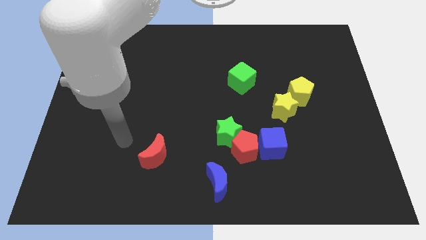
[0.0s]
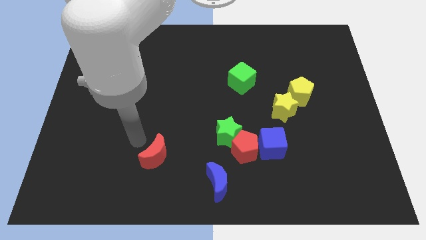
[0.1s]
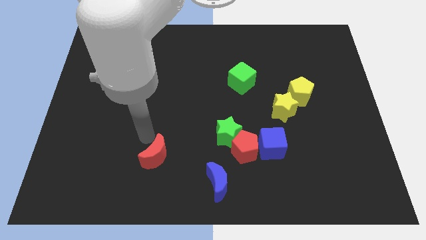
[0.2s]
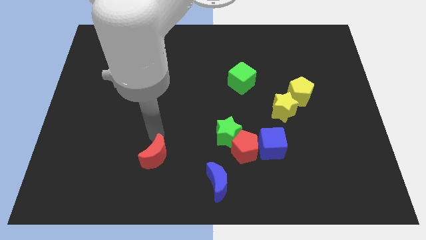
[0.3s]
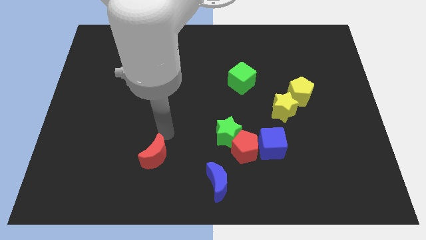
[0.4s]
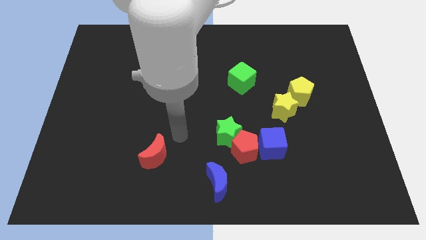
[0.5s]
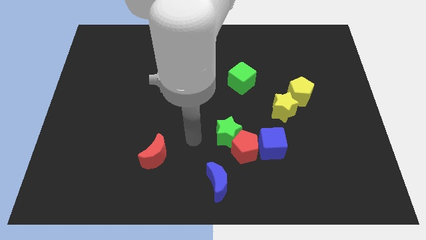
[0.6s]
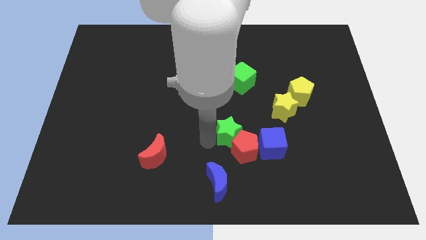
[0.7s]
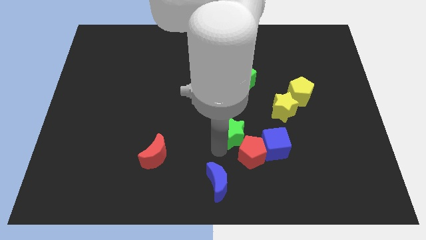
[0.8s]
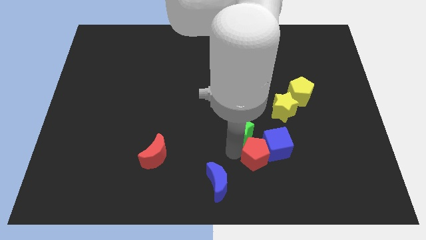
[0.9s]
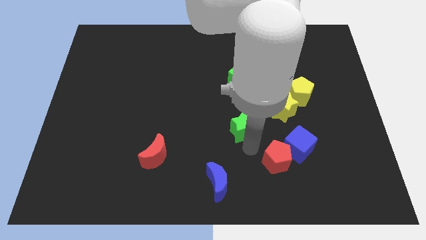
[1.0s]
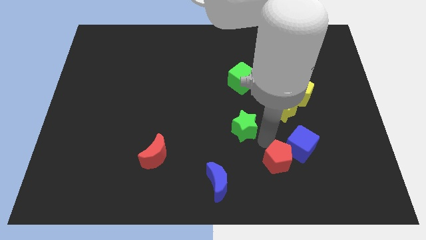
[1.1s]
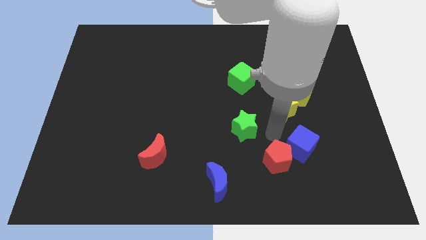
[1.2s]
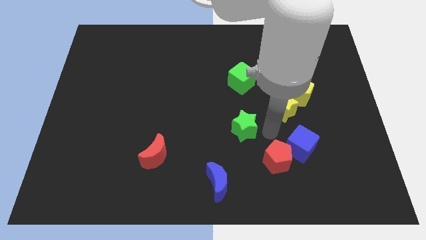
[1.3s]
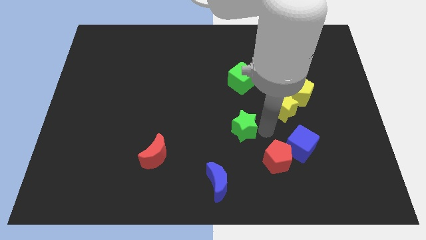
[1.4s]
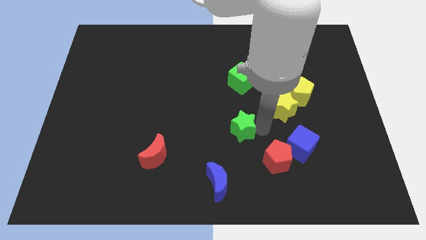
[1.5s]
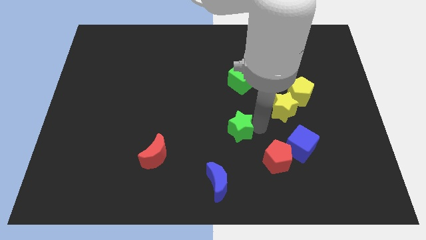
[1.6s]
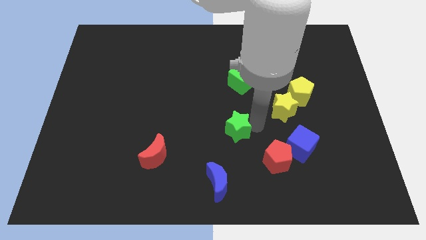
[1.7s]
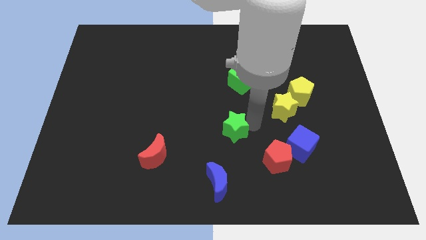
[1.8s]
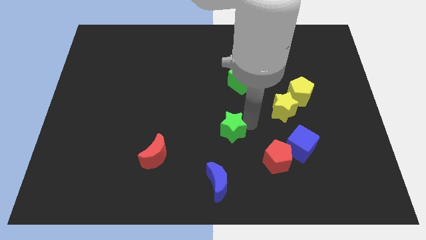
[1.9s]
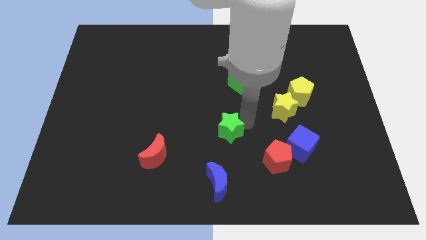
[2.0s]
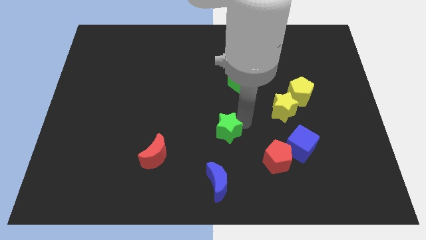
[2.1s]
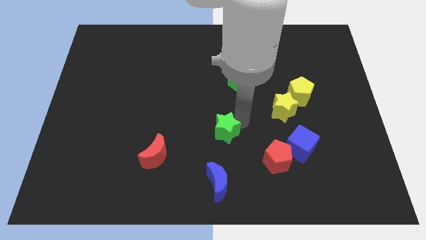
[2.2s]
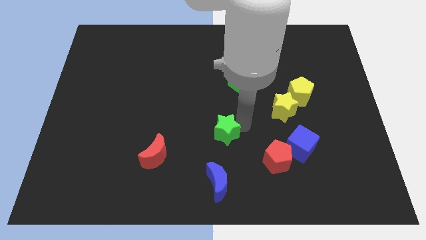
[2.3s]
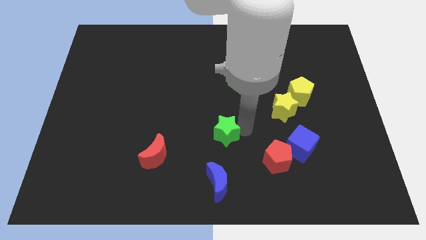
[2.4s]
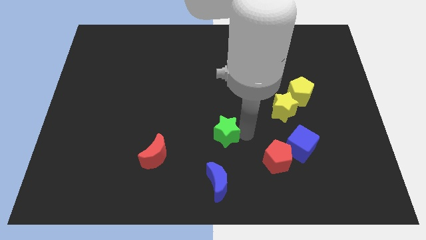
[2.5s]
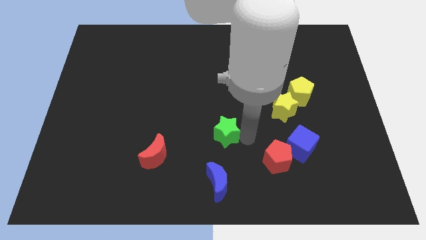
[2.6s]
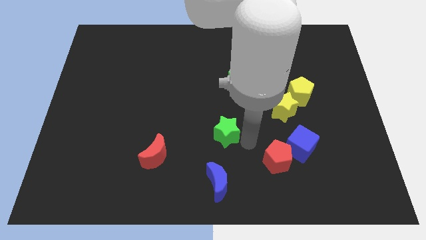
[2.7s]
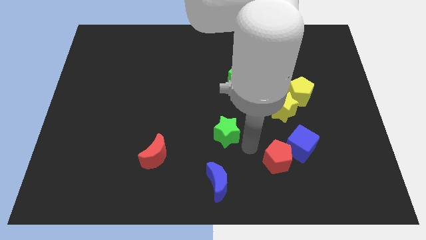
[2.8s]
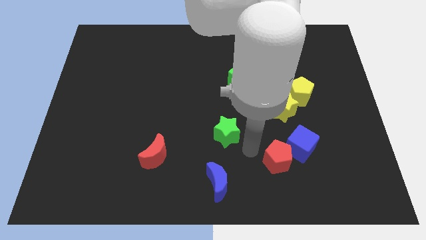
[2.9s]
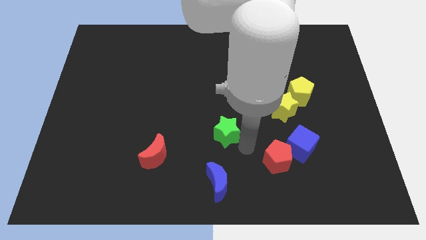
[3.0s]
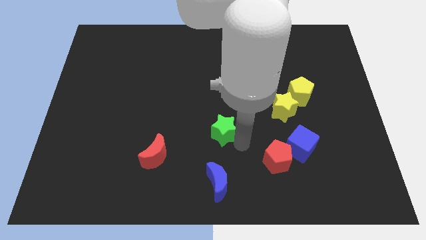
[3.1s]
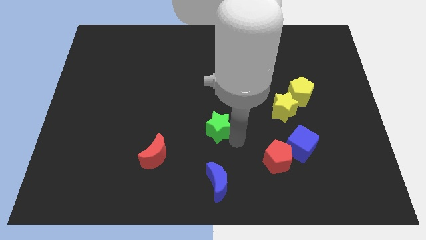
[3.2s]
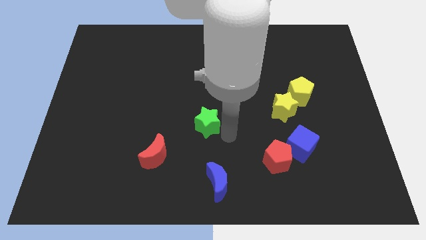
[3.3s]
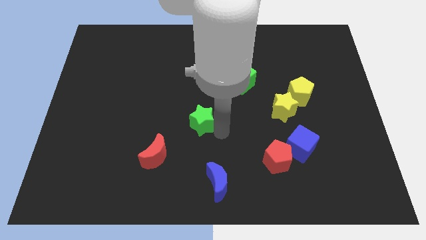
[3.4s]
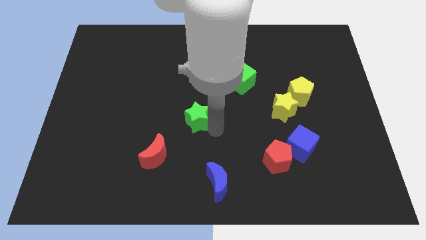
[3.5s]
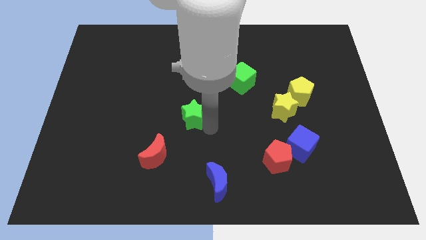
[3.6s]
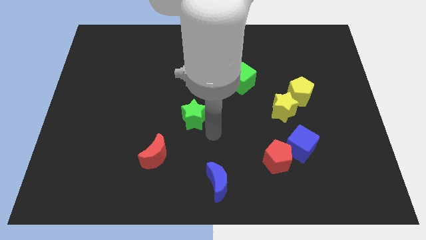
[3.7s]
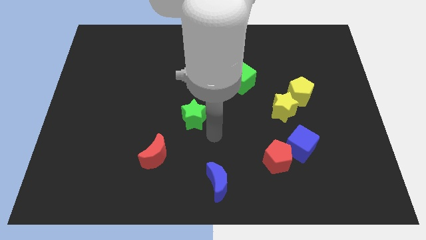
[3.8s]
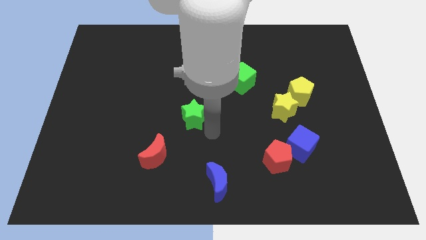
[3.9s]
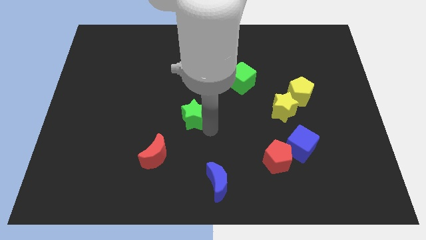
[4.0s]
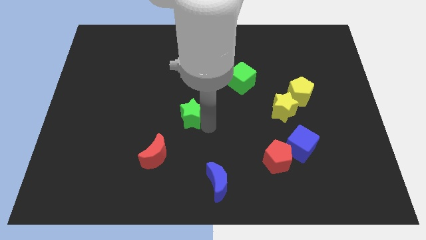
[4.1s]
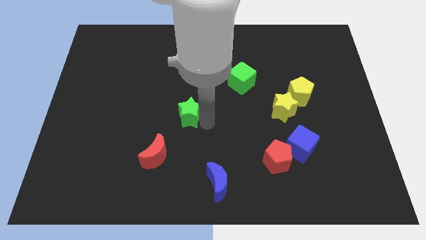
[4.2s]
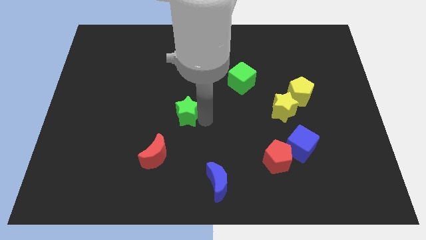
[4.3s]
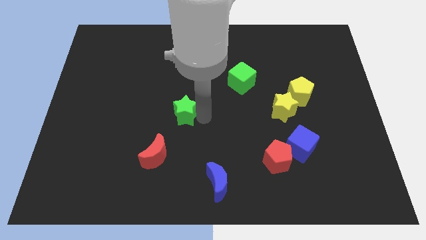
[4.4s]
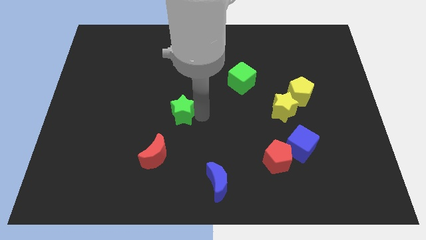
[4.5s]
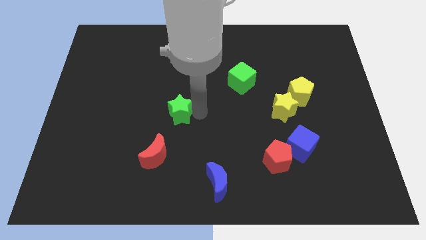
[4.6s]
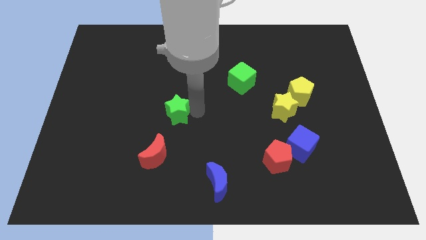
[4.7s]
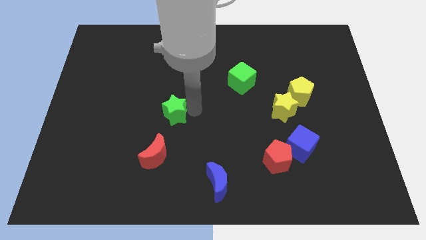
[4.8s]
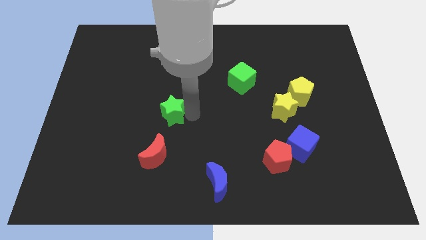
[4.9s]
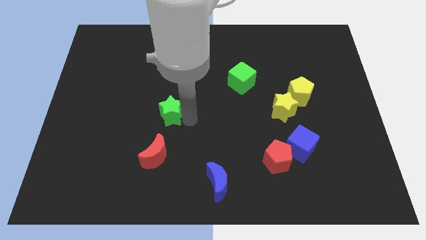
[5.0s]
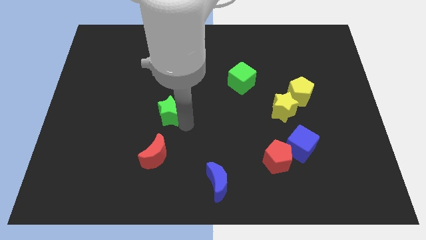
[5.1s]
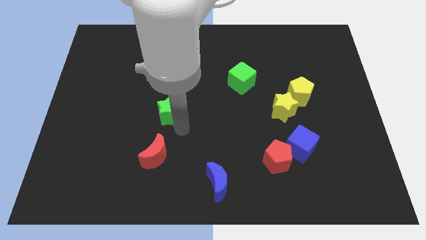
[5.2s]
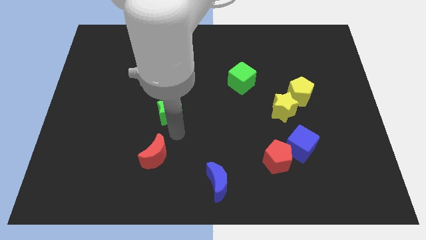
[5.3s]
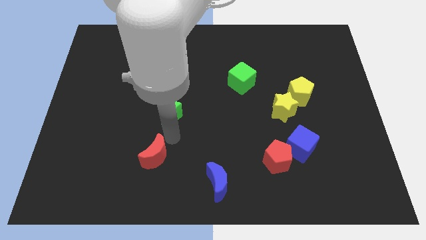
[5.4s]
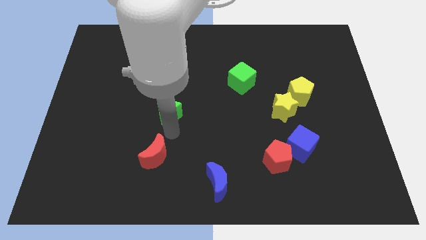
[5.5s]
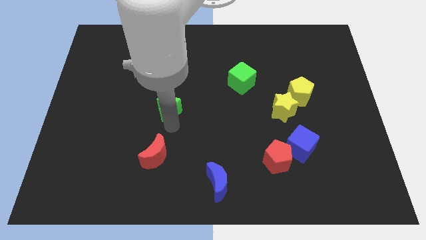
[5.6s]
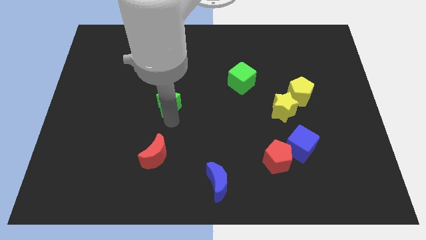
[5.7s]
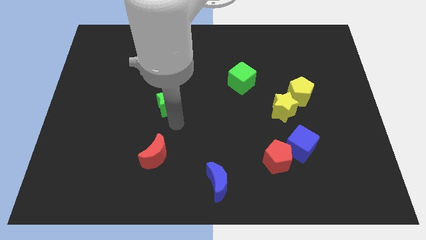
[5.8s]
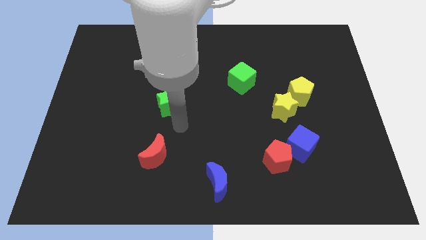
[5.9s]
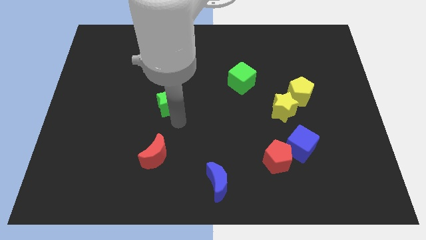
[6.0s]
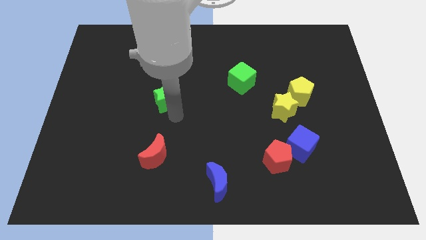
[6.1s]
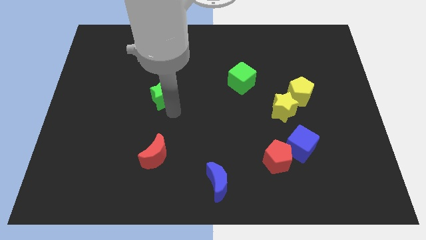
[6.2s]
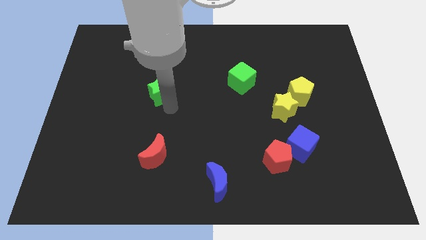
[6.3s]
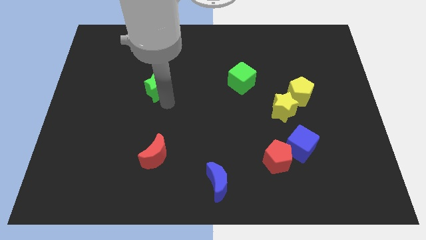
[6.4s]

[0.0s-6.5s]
push the green star up and then left

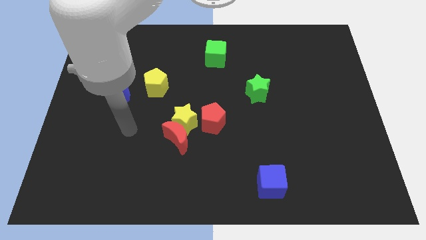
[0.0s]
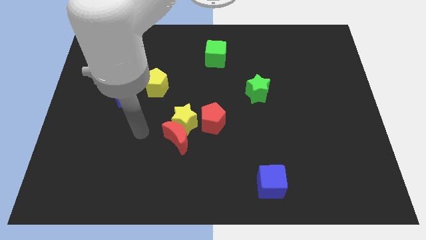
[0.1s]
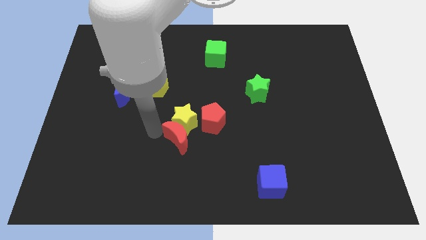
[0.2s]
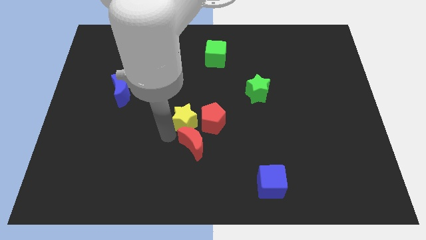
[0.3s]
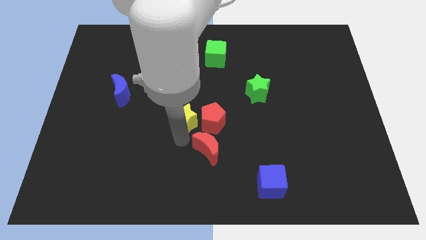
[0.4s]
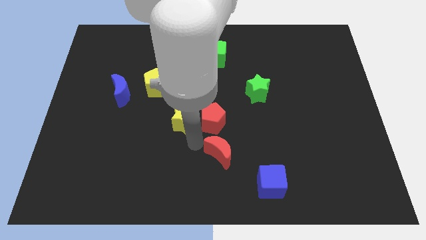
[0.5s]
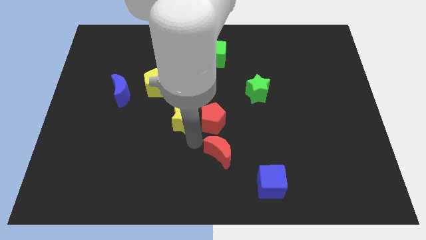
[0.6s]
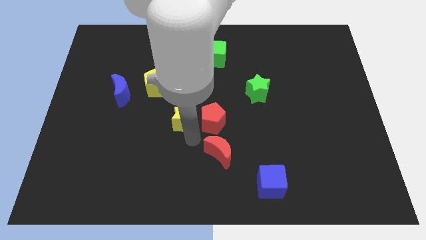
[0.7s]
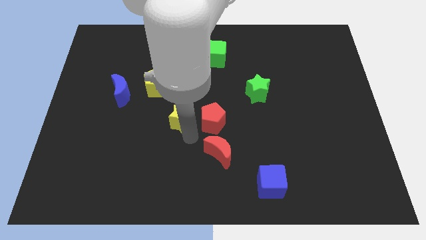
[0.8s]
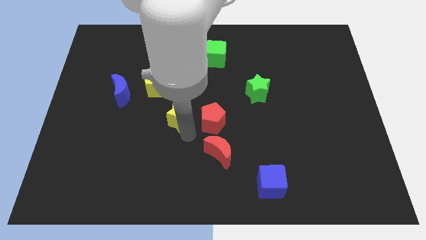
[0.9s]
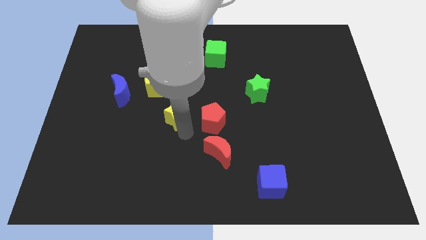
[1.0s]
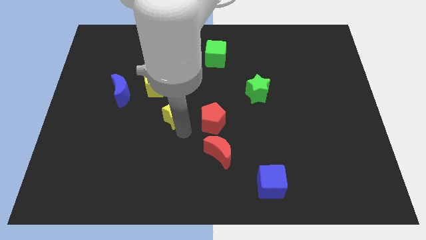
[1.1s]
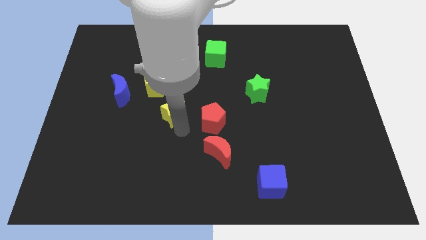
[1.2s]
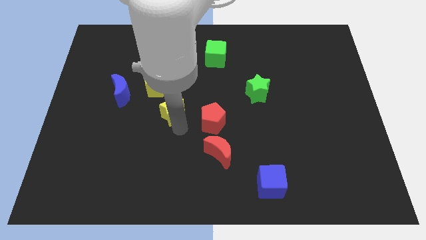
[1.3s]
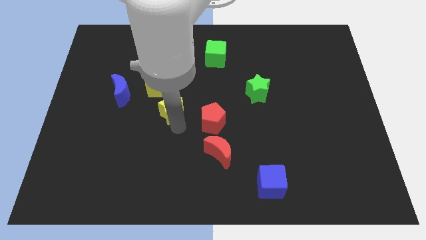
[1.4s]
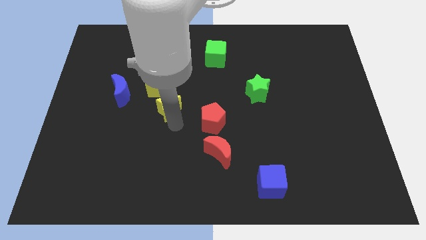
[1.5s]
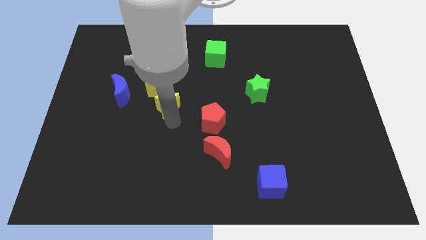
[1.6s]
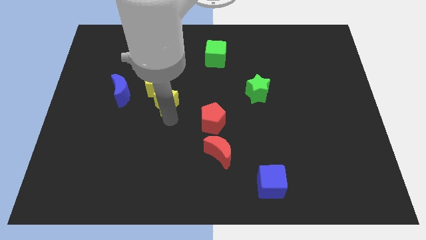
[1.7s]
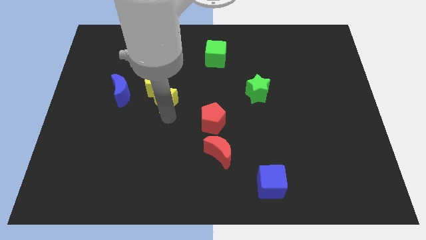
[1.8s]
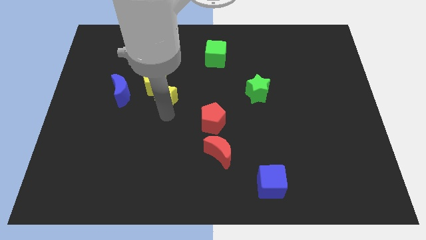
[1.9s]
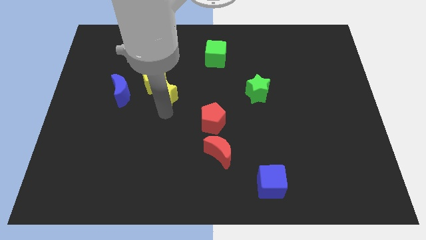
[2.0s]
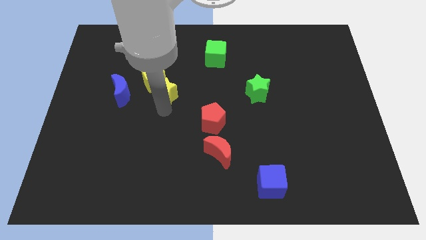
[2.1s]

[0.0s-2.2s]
push the yellow star up slightly
